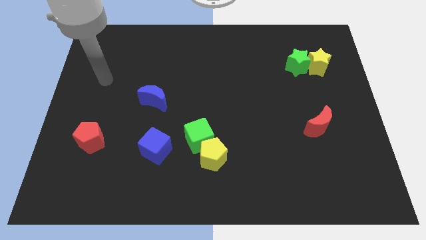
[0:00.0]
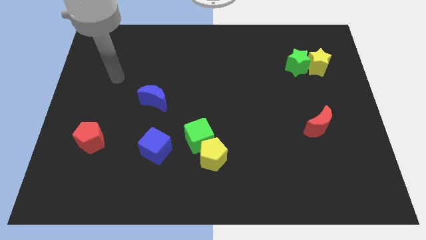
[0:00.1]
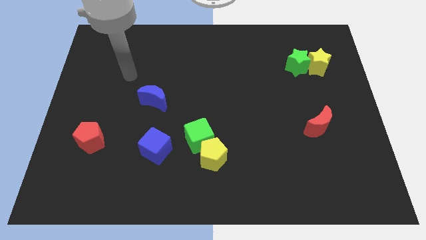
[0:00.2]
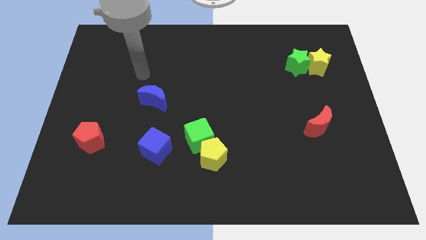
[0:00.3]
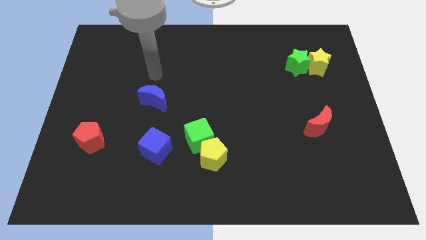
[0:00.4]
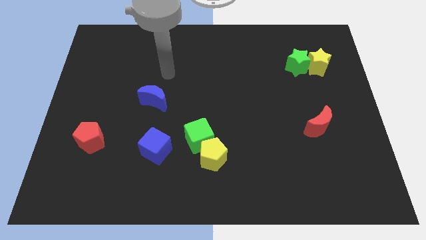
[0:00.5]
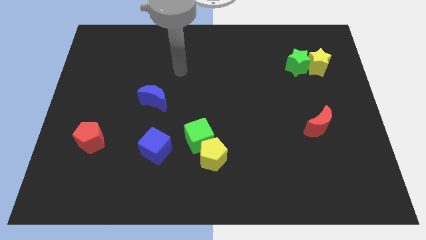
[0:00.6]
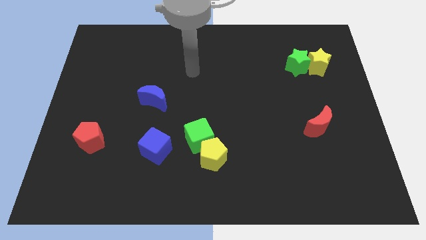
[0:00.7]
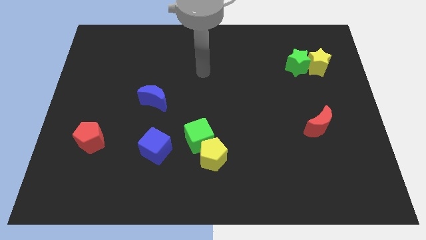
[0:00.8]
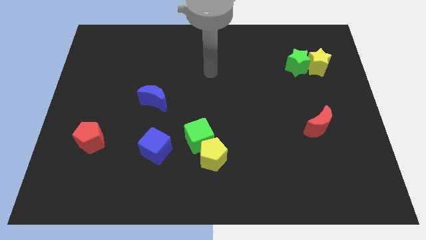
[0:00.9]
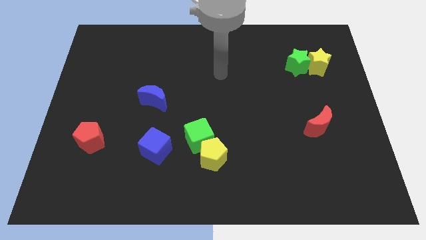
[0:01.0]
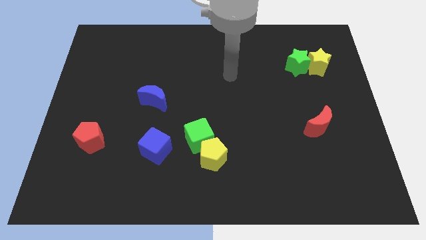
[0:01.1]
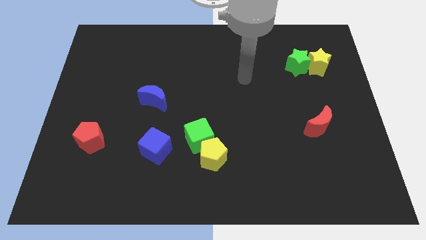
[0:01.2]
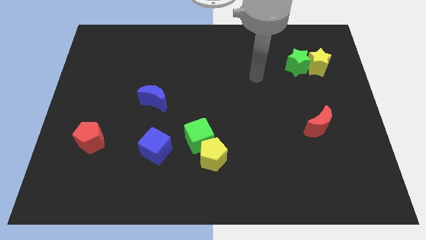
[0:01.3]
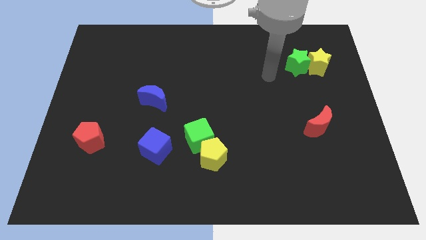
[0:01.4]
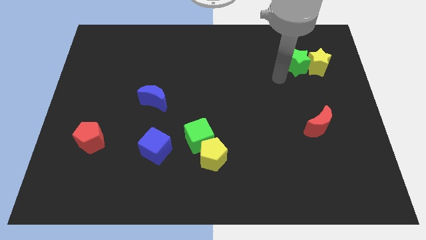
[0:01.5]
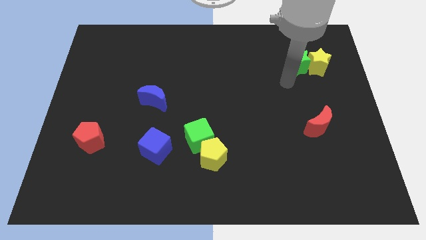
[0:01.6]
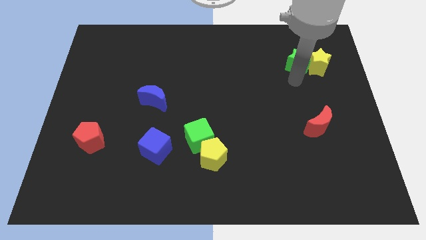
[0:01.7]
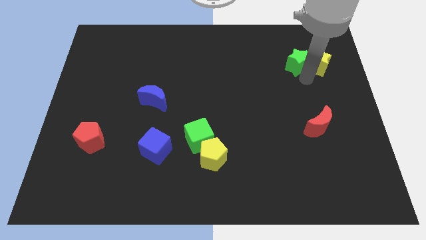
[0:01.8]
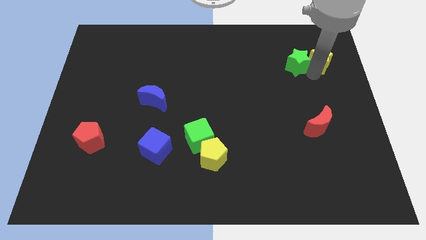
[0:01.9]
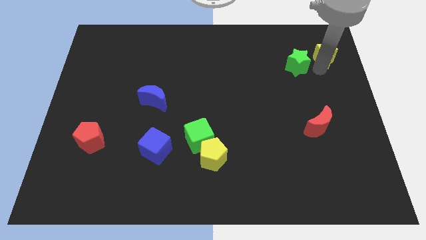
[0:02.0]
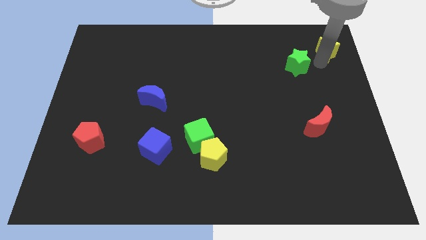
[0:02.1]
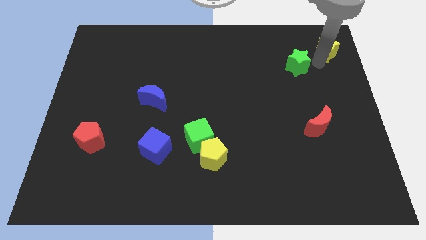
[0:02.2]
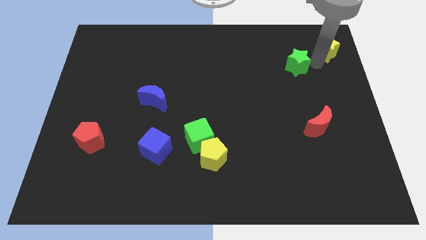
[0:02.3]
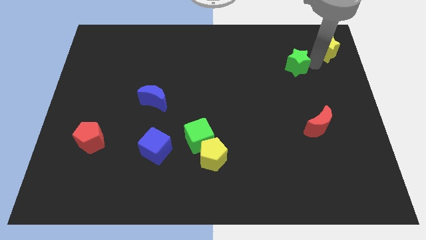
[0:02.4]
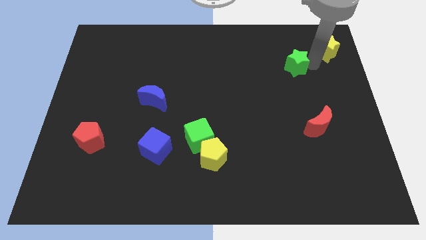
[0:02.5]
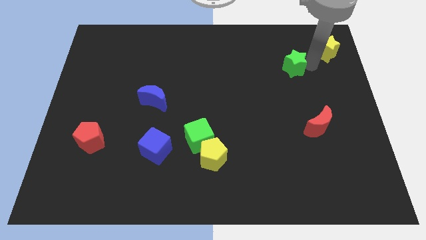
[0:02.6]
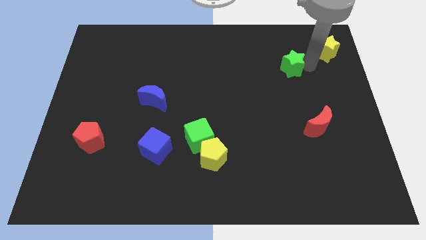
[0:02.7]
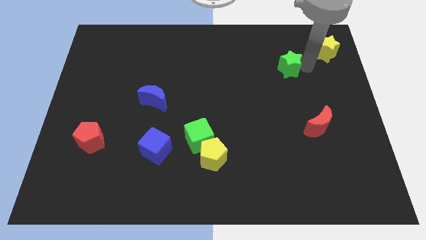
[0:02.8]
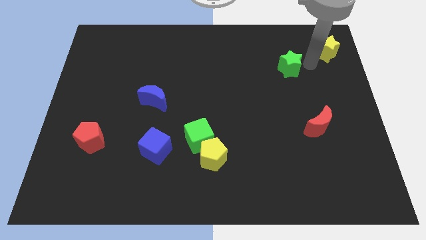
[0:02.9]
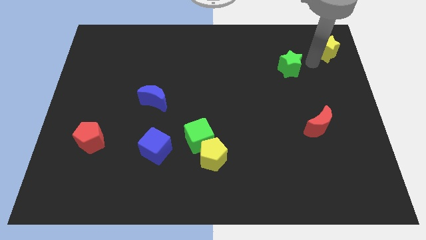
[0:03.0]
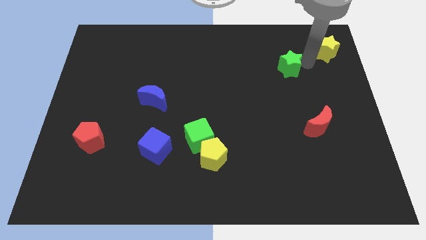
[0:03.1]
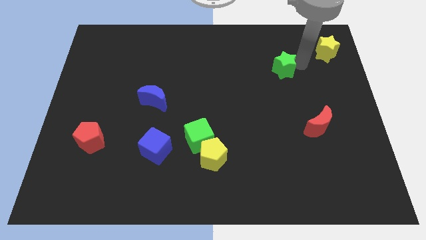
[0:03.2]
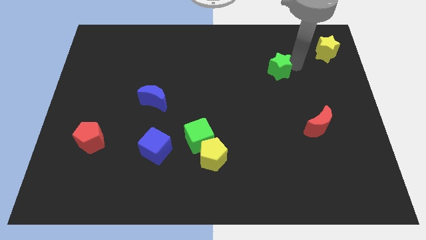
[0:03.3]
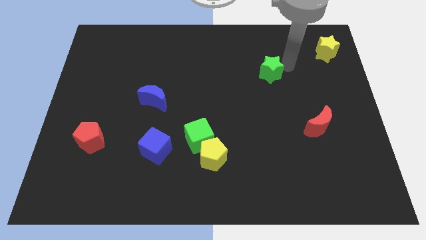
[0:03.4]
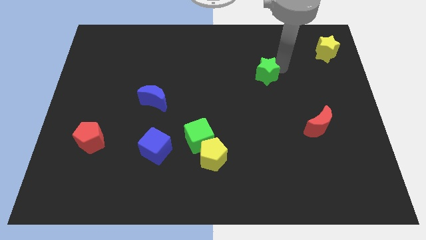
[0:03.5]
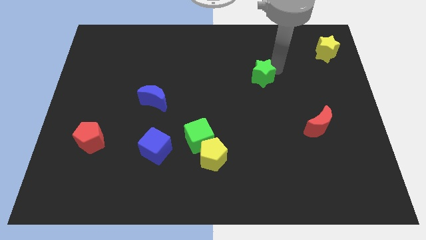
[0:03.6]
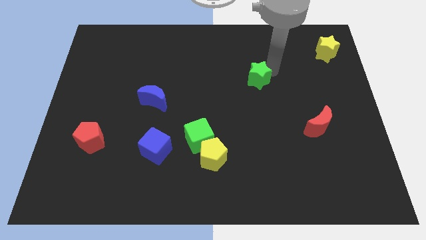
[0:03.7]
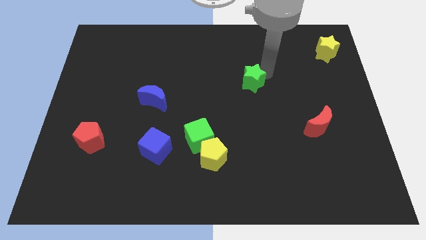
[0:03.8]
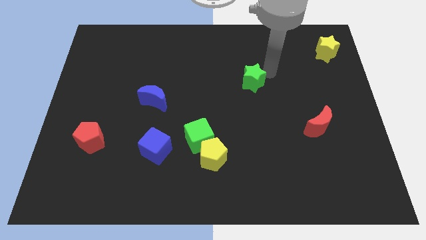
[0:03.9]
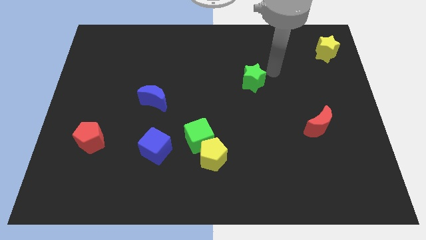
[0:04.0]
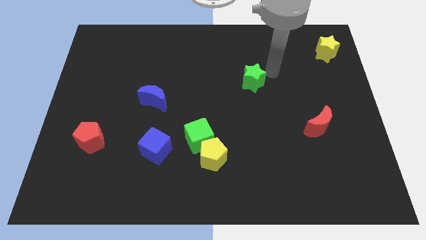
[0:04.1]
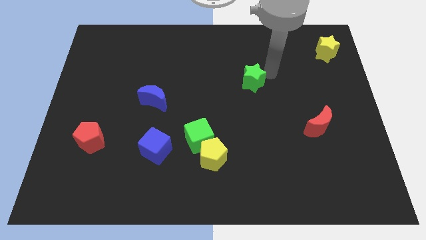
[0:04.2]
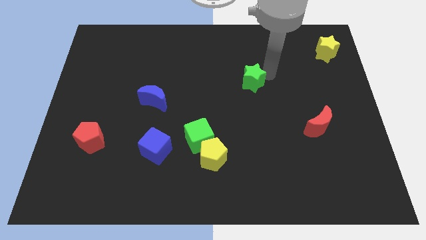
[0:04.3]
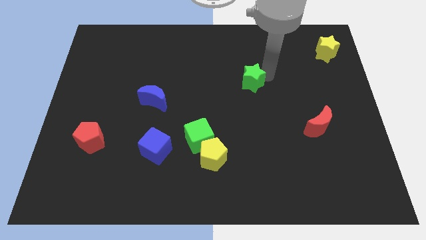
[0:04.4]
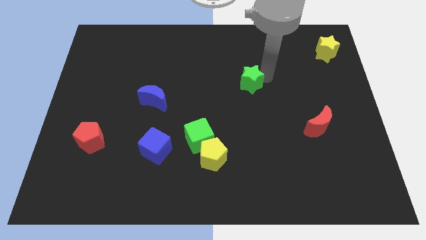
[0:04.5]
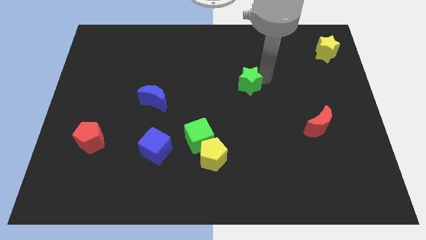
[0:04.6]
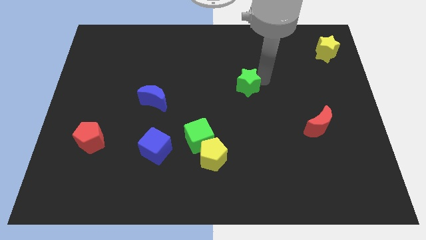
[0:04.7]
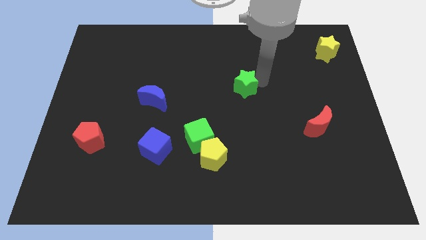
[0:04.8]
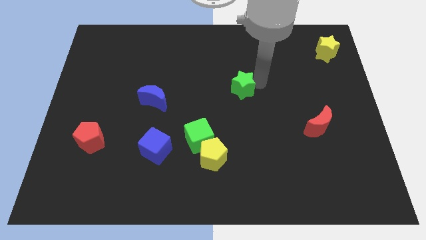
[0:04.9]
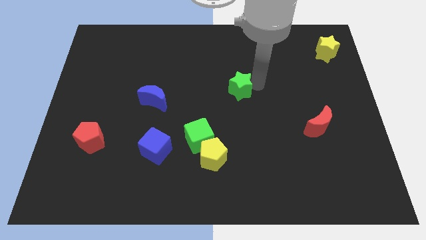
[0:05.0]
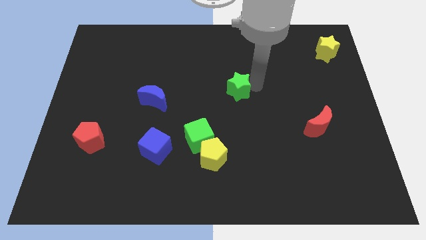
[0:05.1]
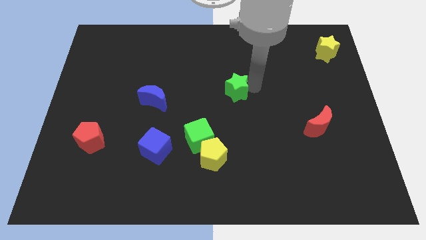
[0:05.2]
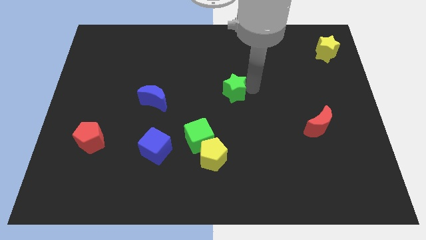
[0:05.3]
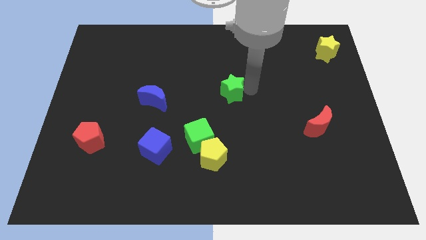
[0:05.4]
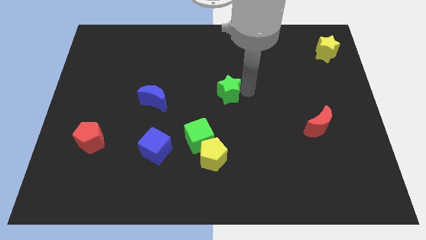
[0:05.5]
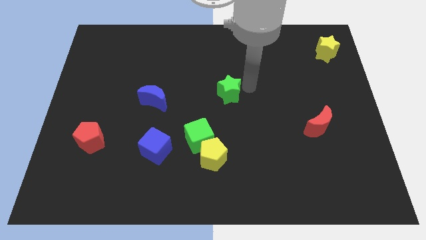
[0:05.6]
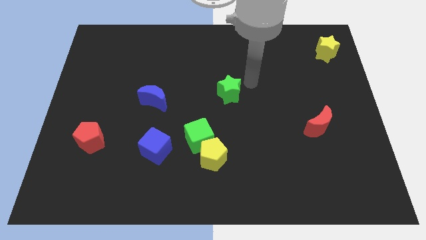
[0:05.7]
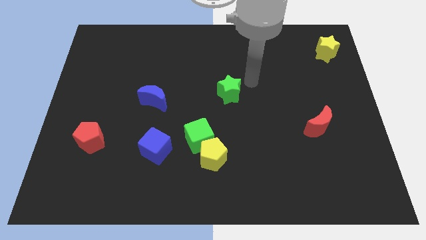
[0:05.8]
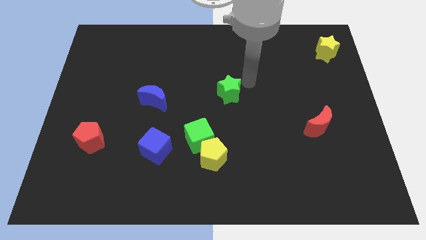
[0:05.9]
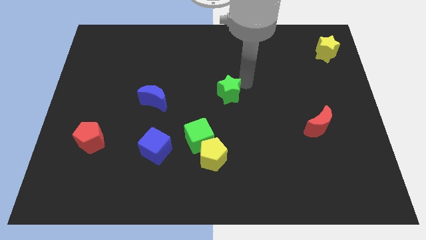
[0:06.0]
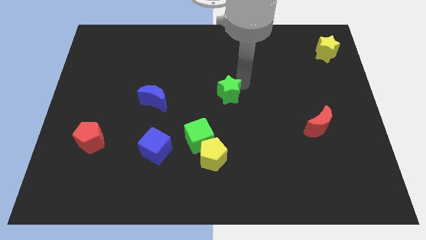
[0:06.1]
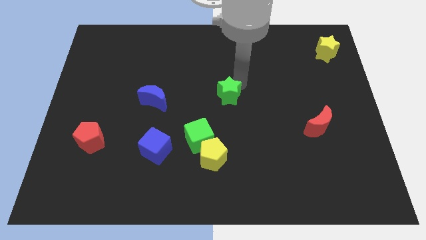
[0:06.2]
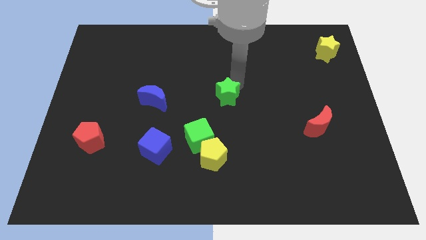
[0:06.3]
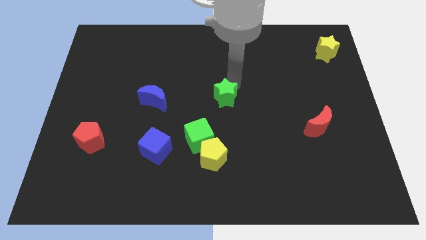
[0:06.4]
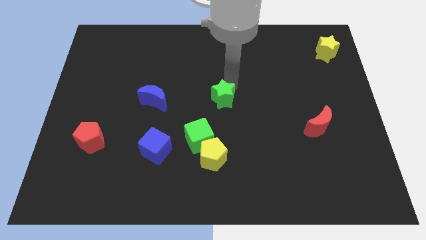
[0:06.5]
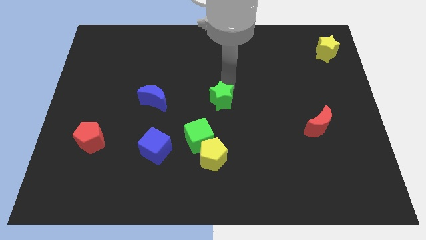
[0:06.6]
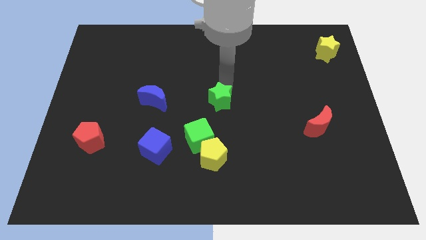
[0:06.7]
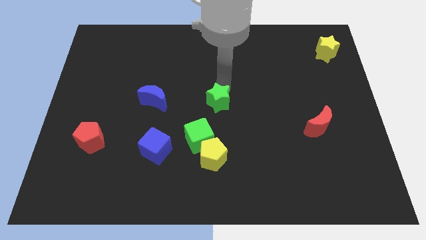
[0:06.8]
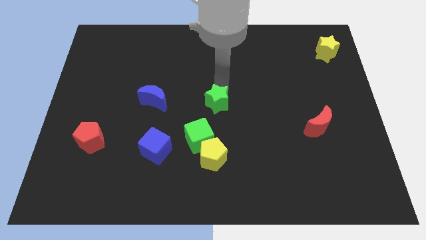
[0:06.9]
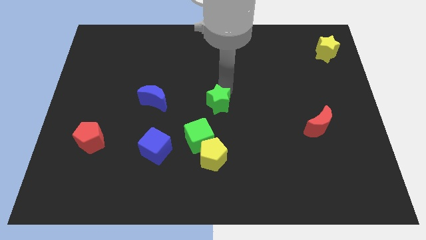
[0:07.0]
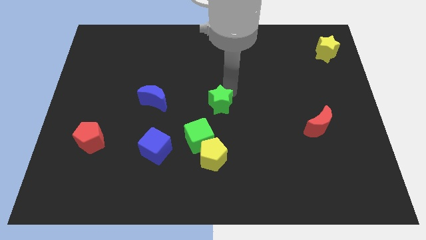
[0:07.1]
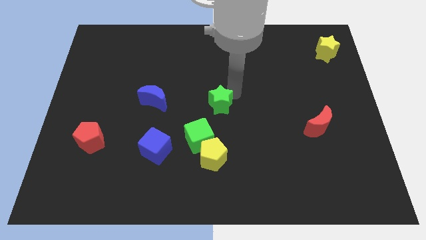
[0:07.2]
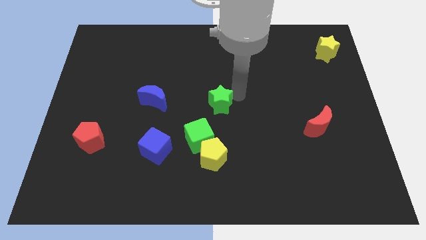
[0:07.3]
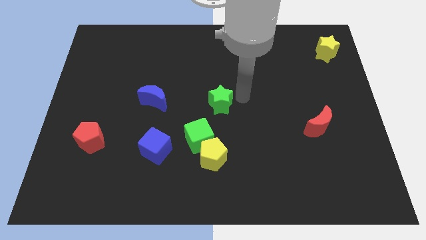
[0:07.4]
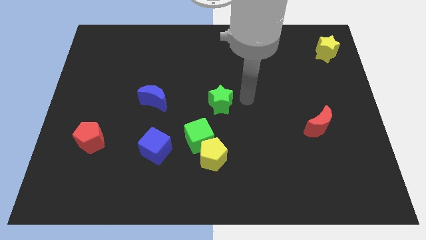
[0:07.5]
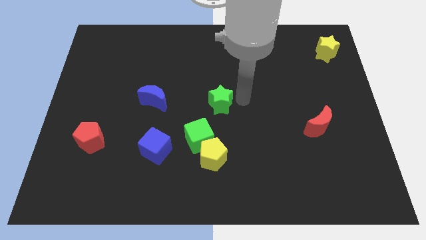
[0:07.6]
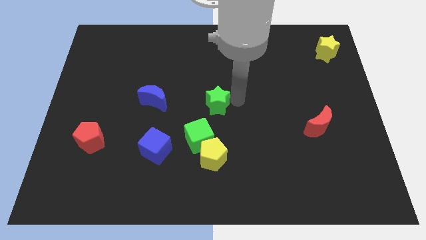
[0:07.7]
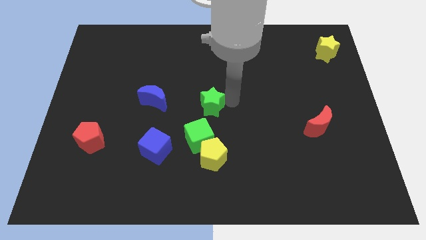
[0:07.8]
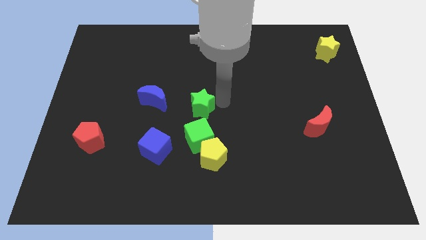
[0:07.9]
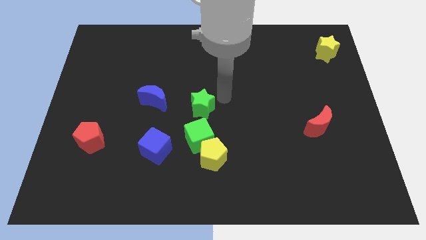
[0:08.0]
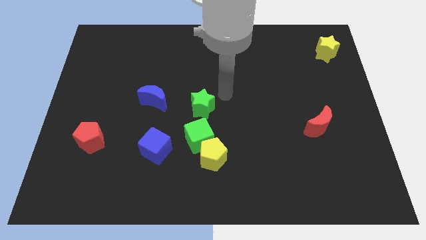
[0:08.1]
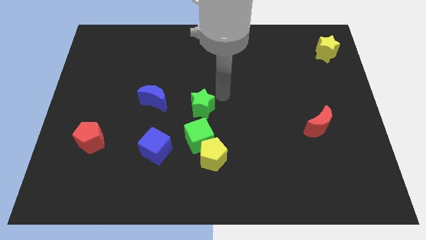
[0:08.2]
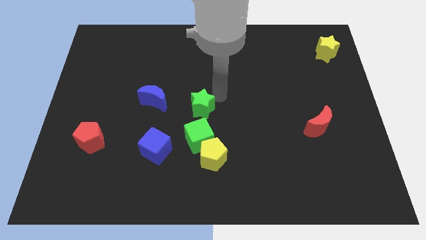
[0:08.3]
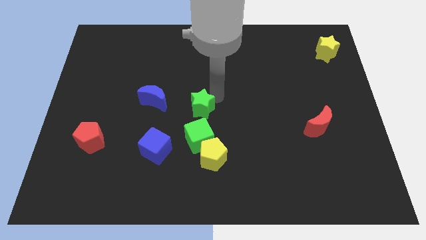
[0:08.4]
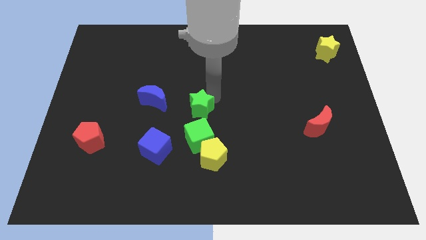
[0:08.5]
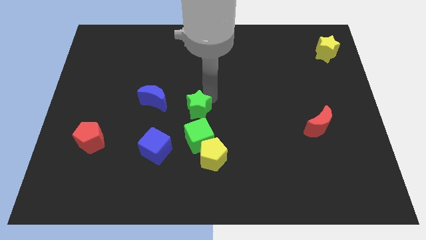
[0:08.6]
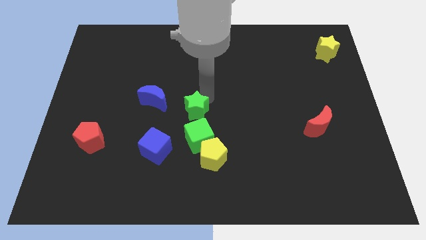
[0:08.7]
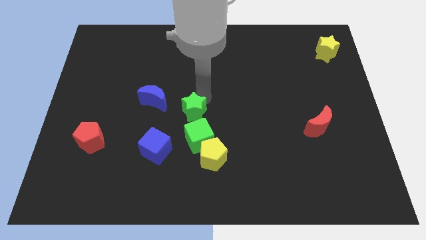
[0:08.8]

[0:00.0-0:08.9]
slide the green star to the top left side of the green cube
